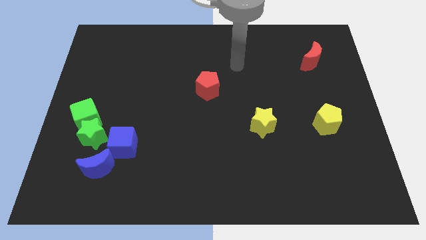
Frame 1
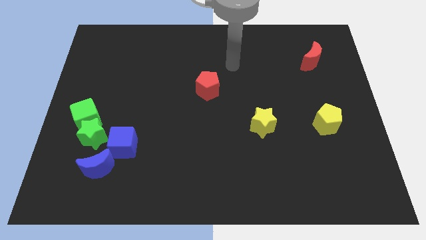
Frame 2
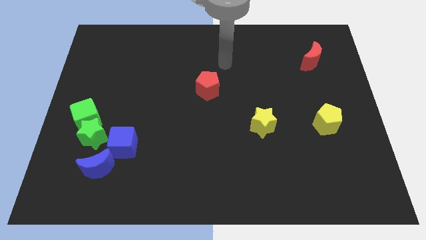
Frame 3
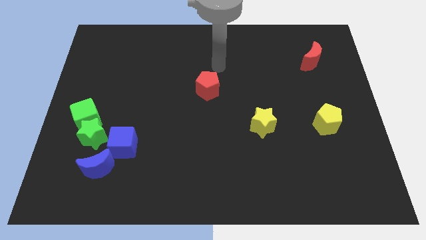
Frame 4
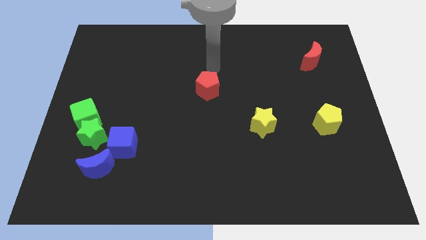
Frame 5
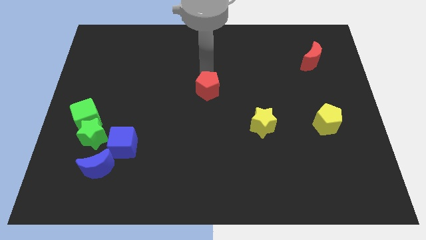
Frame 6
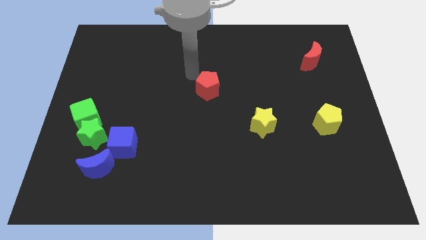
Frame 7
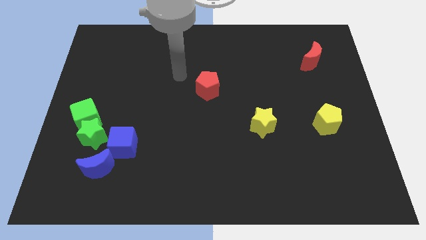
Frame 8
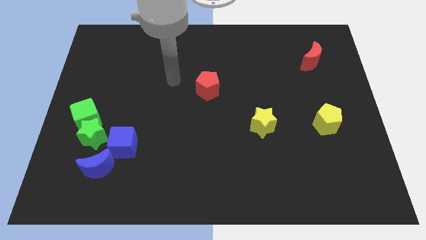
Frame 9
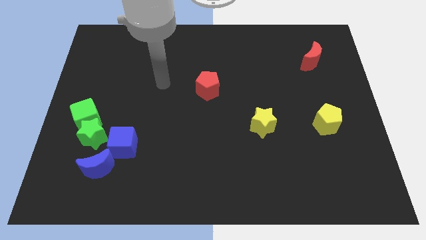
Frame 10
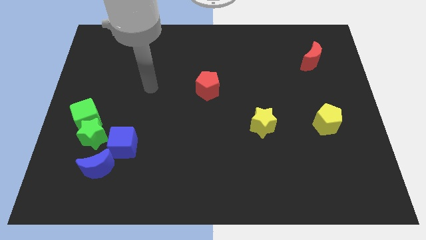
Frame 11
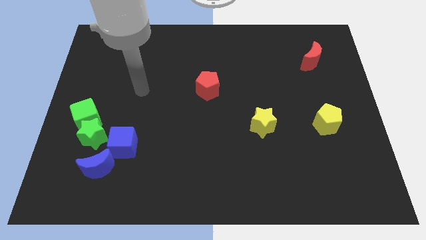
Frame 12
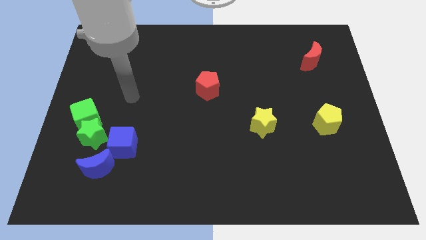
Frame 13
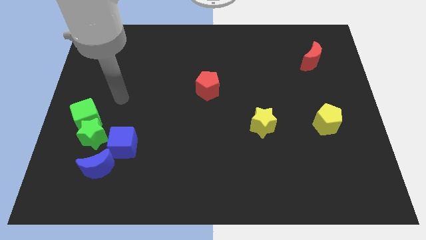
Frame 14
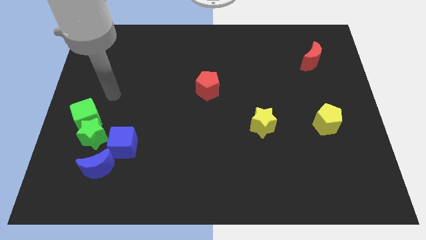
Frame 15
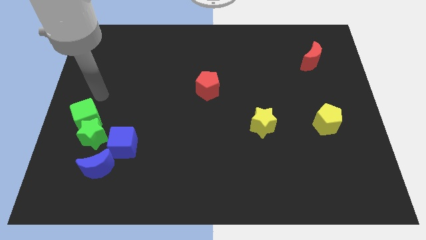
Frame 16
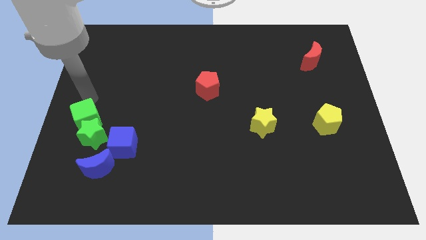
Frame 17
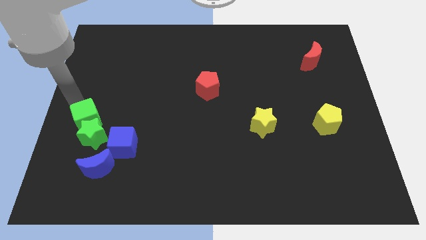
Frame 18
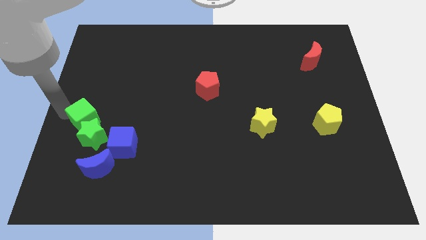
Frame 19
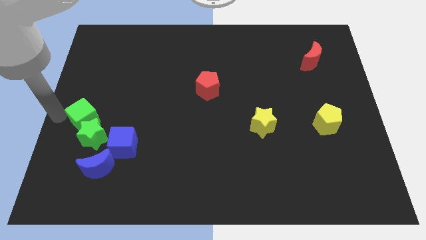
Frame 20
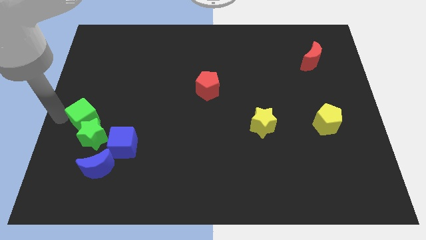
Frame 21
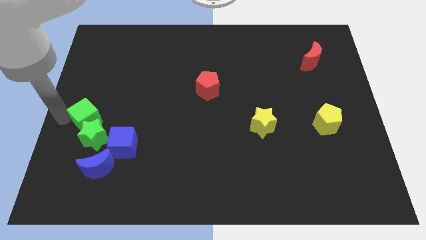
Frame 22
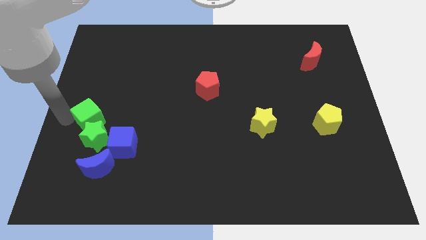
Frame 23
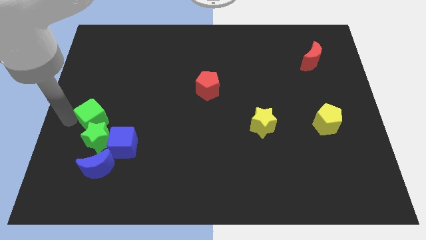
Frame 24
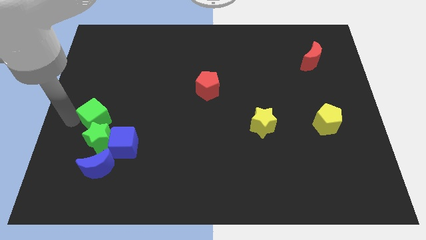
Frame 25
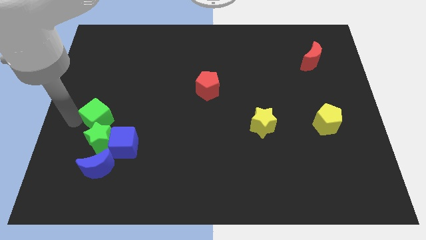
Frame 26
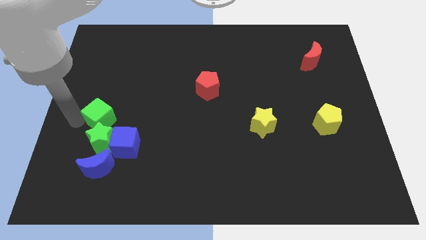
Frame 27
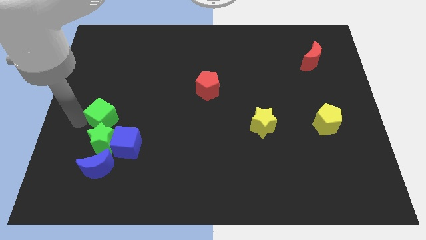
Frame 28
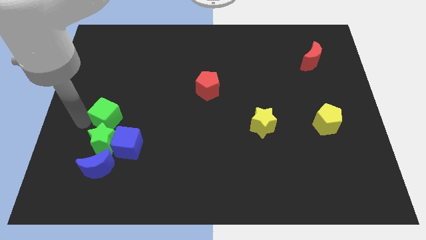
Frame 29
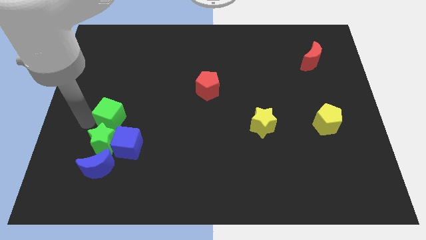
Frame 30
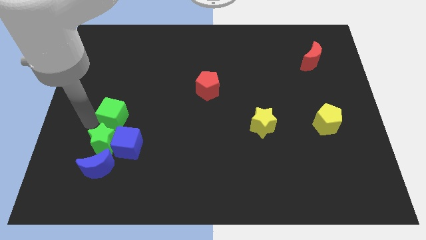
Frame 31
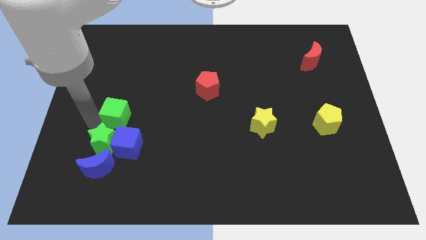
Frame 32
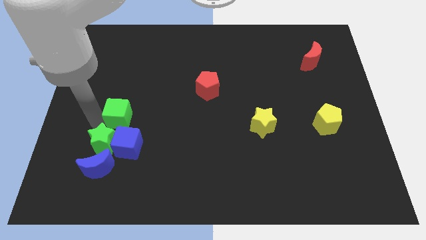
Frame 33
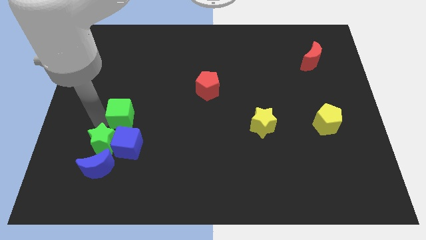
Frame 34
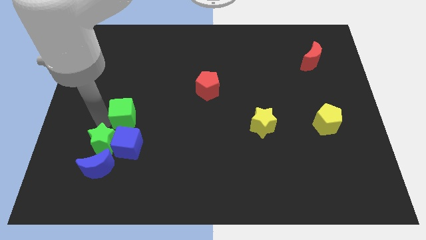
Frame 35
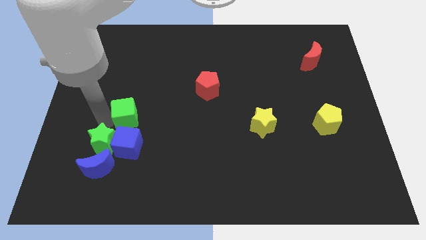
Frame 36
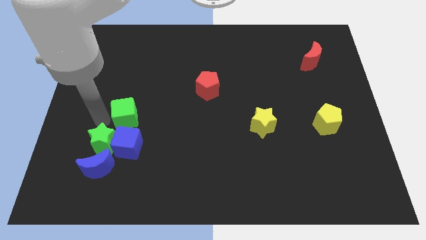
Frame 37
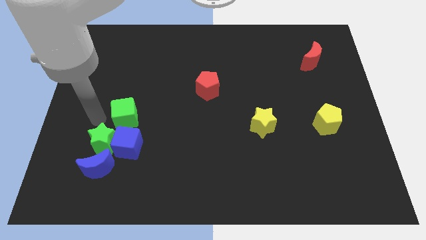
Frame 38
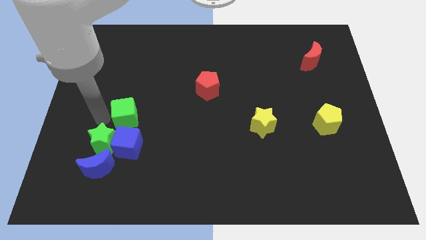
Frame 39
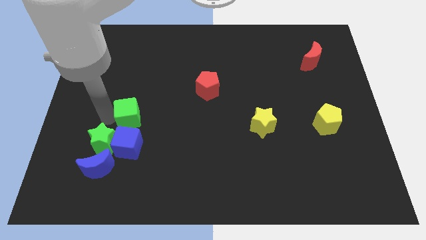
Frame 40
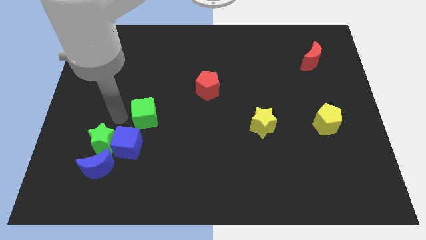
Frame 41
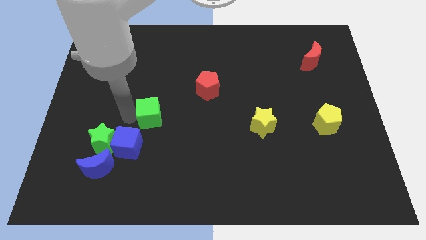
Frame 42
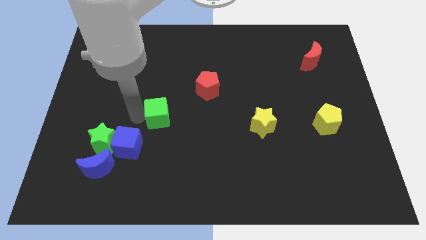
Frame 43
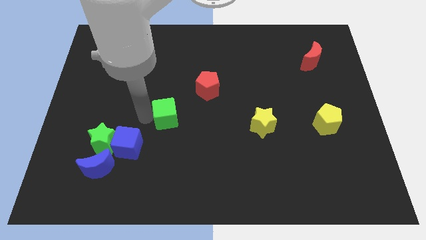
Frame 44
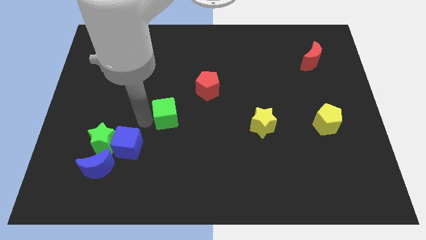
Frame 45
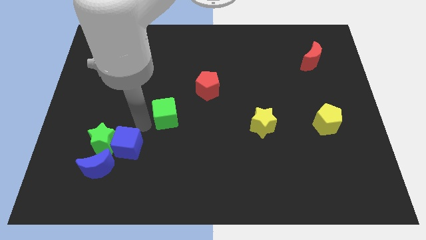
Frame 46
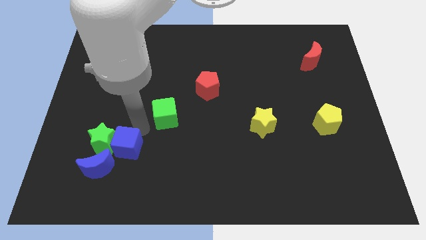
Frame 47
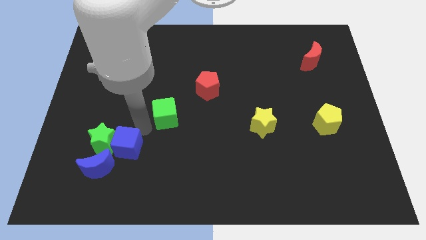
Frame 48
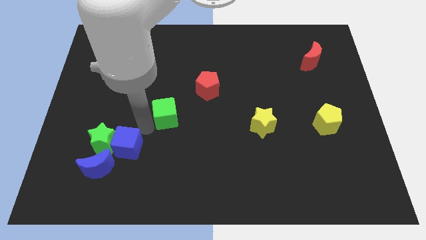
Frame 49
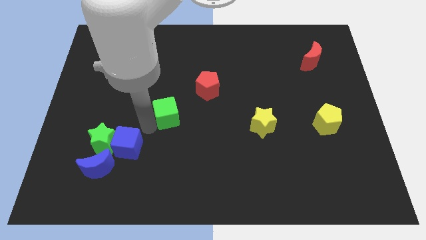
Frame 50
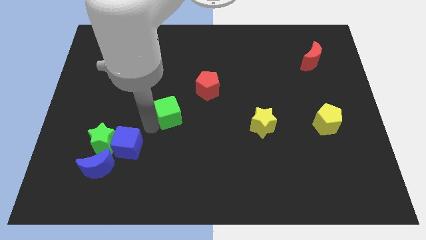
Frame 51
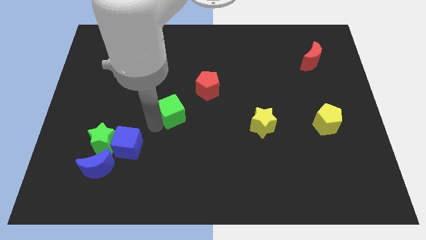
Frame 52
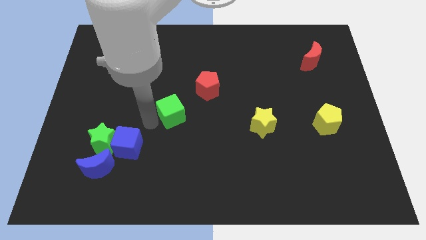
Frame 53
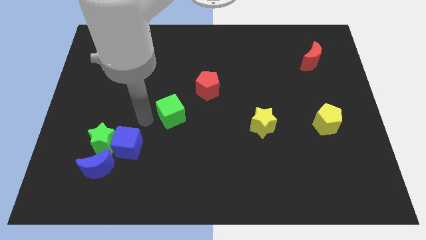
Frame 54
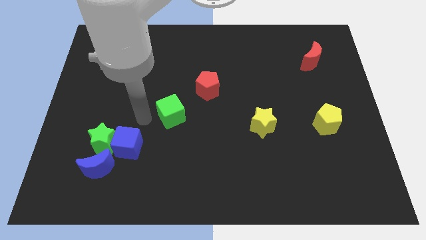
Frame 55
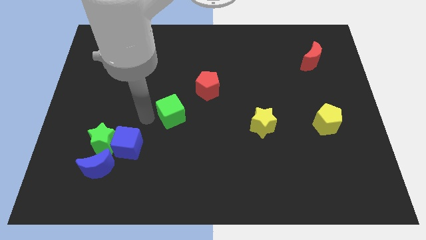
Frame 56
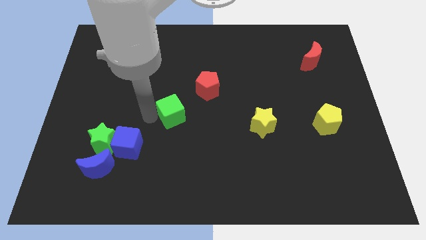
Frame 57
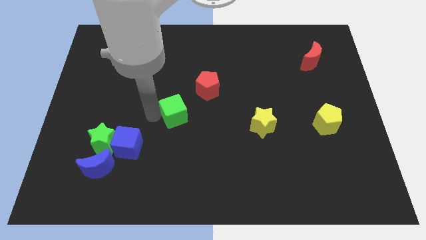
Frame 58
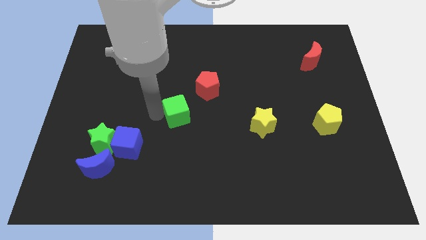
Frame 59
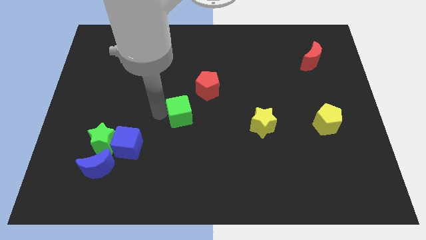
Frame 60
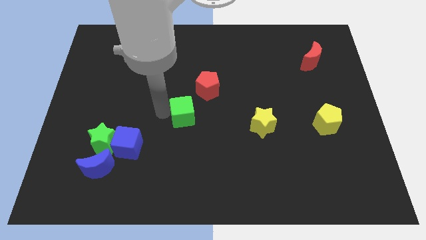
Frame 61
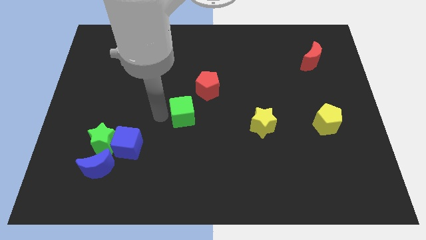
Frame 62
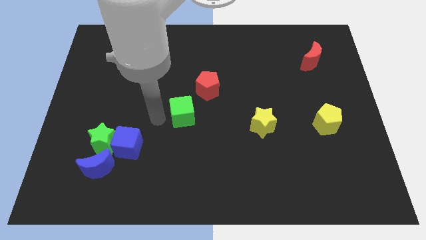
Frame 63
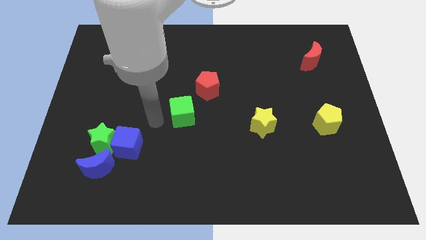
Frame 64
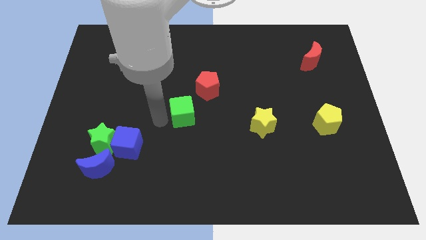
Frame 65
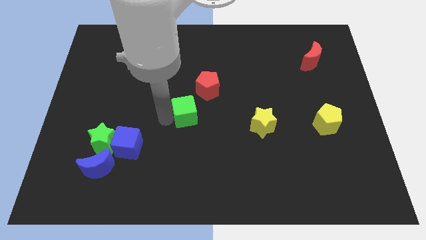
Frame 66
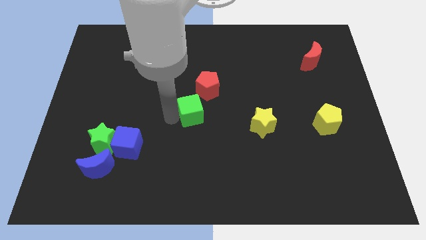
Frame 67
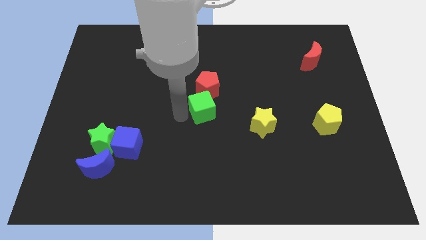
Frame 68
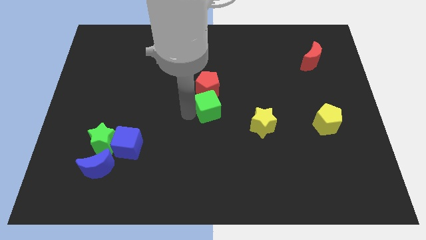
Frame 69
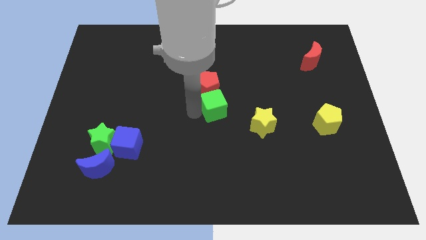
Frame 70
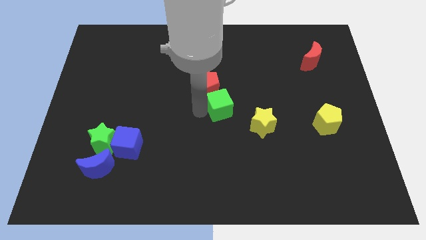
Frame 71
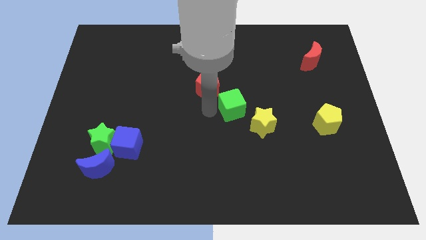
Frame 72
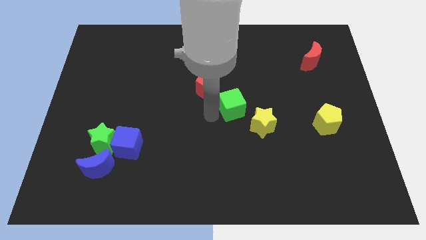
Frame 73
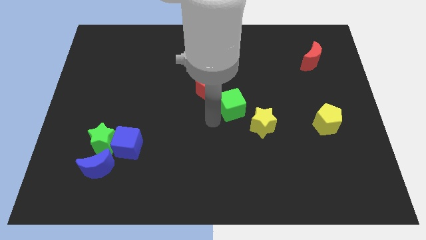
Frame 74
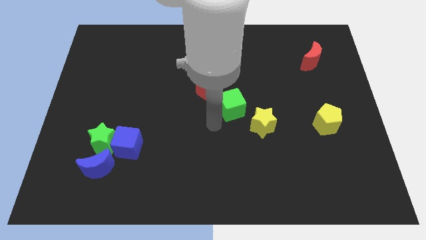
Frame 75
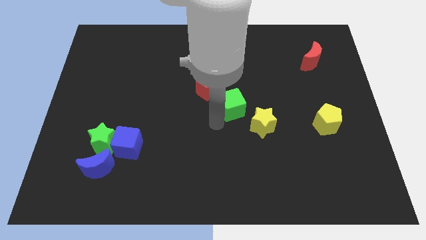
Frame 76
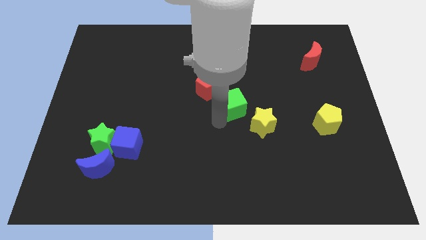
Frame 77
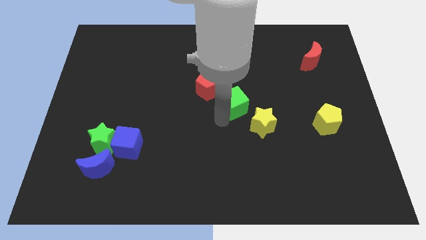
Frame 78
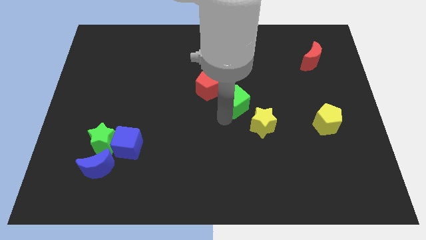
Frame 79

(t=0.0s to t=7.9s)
push the green cube to the right side of the red pentagon
